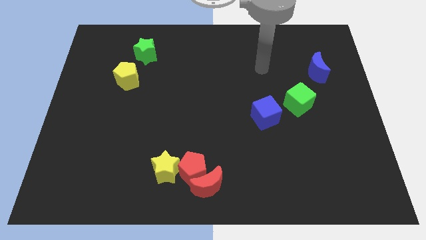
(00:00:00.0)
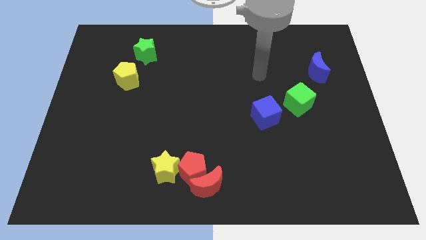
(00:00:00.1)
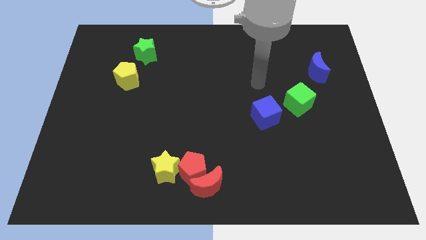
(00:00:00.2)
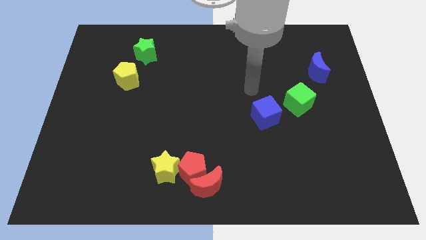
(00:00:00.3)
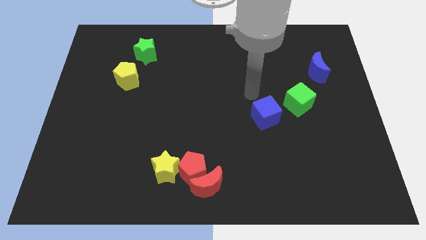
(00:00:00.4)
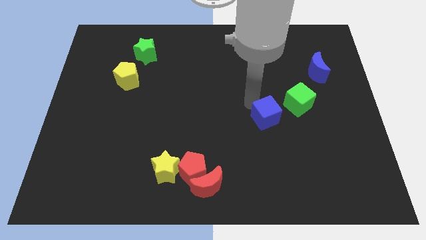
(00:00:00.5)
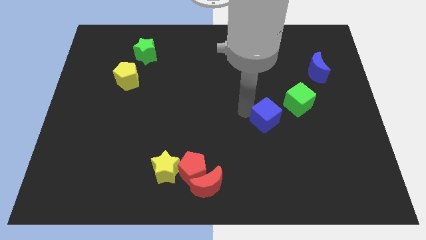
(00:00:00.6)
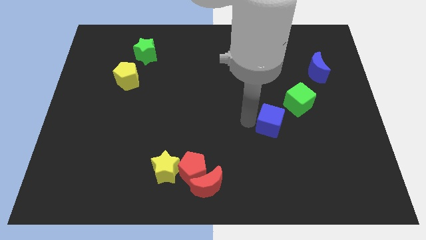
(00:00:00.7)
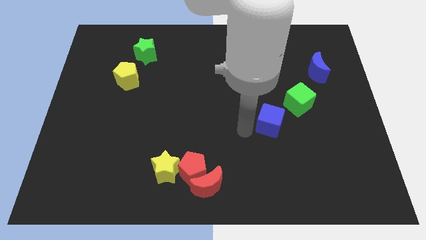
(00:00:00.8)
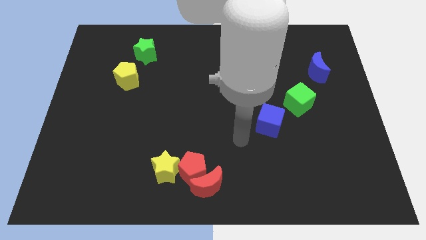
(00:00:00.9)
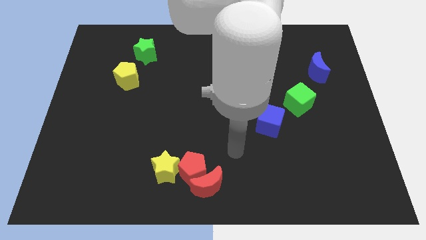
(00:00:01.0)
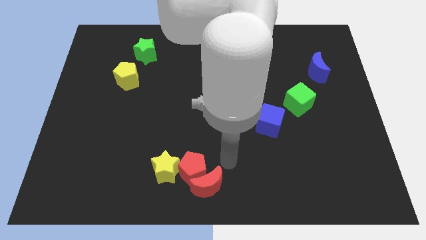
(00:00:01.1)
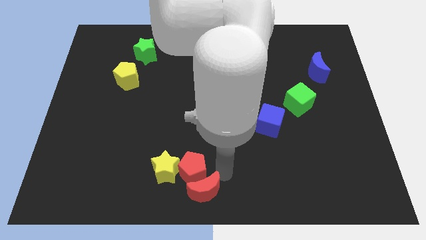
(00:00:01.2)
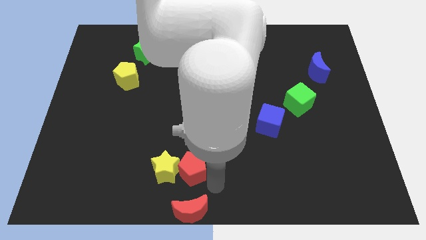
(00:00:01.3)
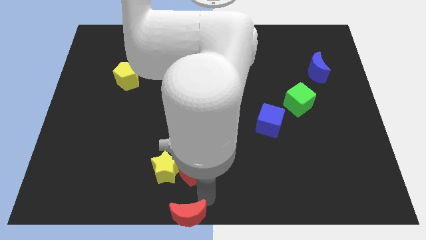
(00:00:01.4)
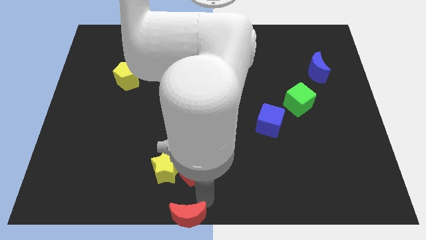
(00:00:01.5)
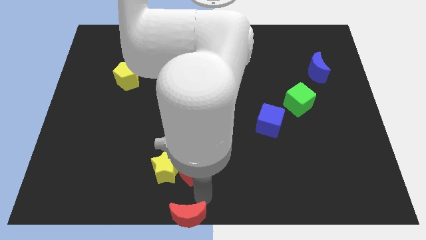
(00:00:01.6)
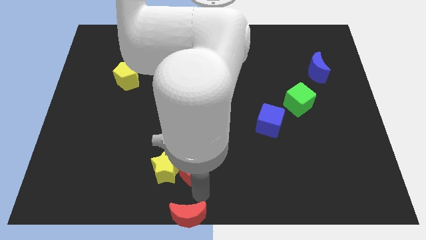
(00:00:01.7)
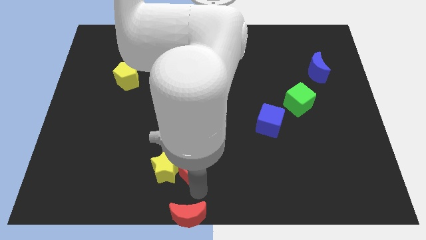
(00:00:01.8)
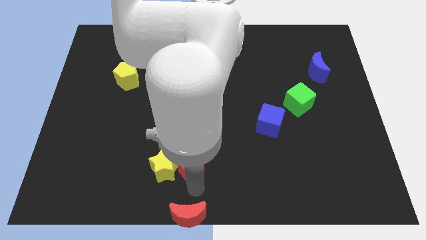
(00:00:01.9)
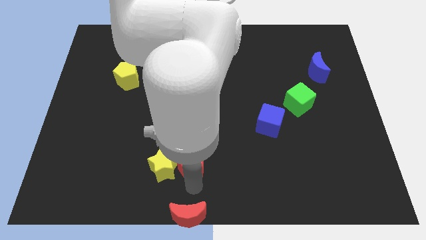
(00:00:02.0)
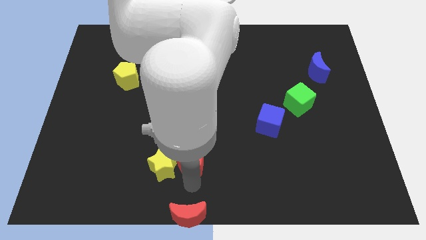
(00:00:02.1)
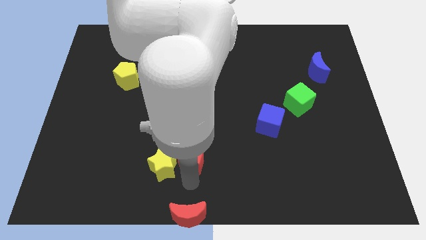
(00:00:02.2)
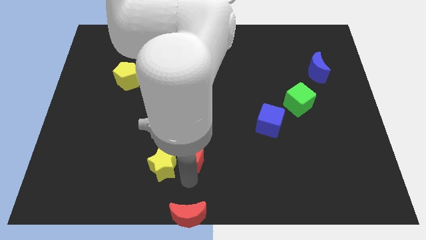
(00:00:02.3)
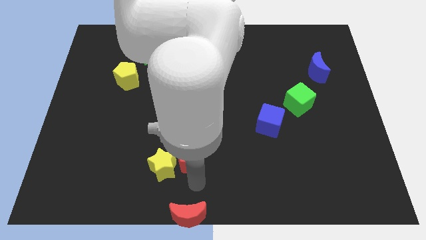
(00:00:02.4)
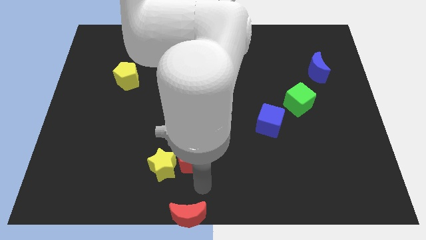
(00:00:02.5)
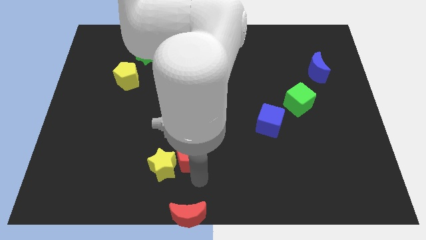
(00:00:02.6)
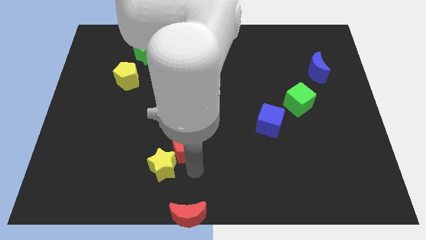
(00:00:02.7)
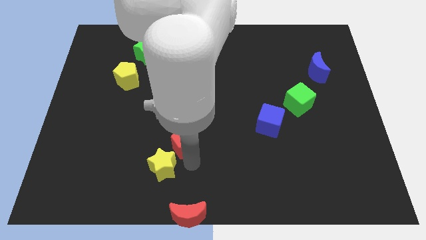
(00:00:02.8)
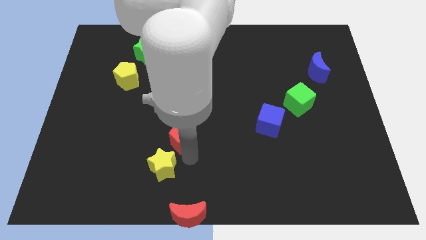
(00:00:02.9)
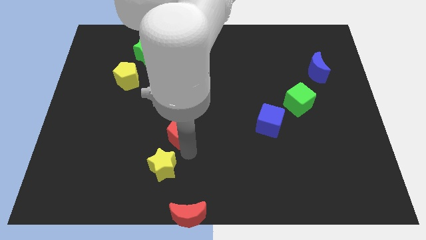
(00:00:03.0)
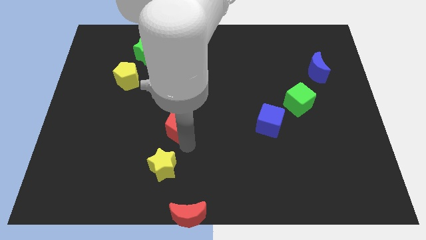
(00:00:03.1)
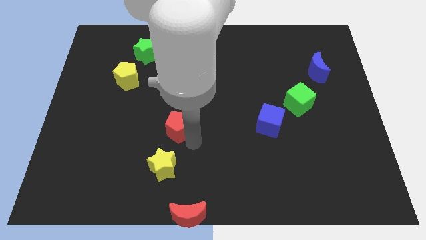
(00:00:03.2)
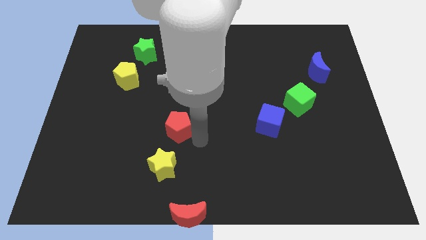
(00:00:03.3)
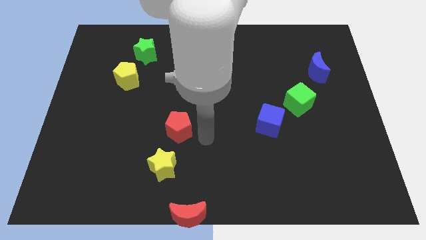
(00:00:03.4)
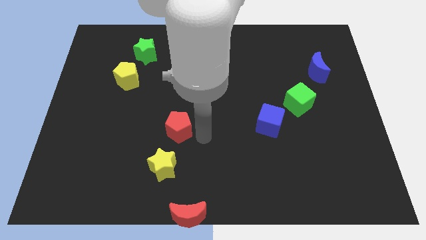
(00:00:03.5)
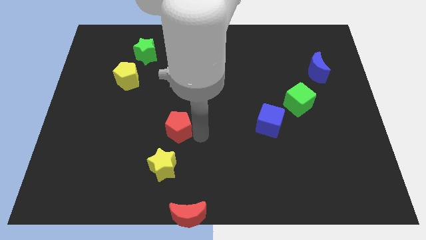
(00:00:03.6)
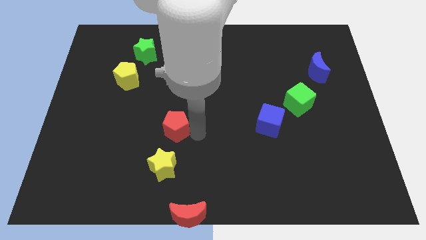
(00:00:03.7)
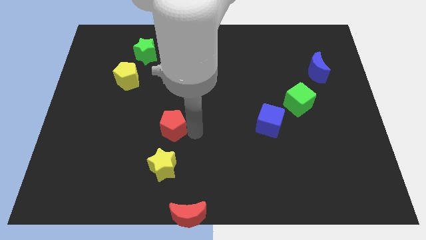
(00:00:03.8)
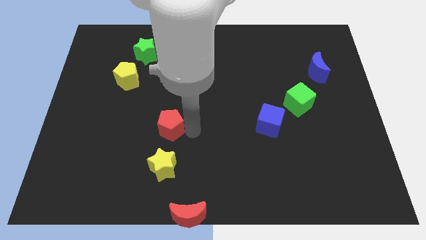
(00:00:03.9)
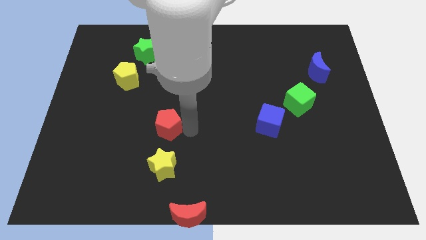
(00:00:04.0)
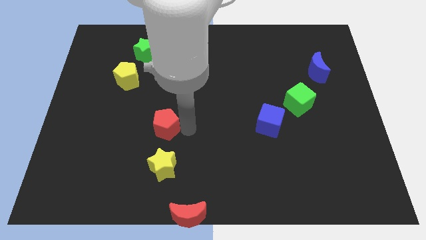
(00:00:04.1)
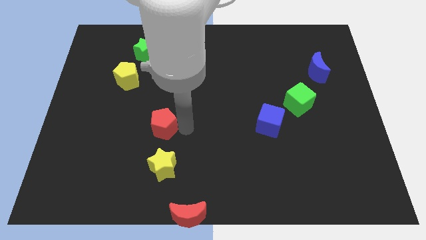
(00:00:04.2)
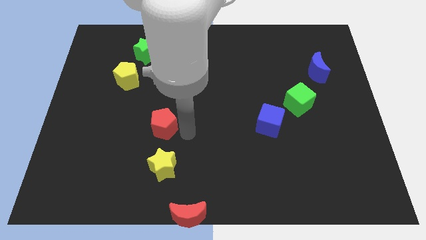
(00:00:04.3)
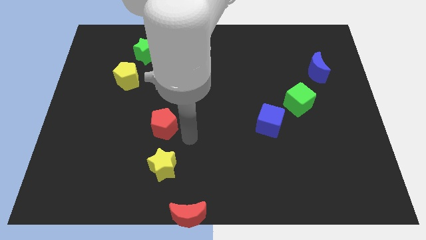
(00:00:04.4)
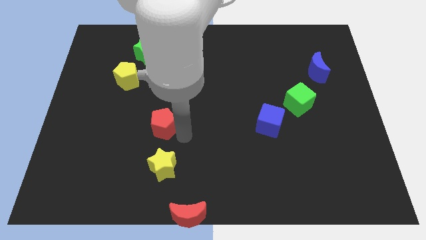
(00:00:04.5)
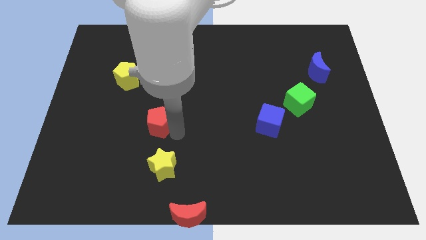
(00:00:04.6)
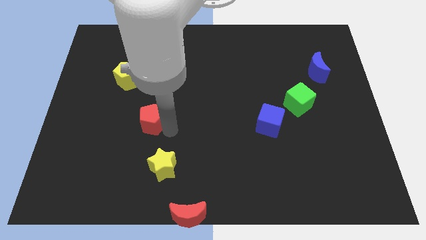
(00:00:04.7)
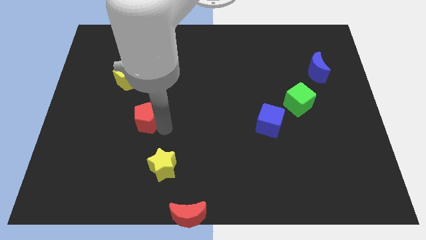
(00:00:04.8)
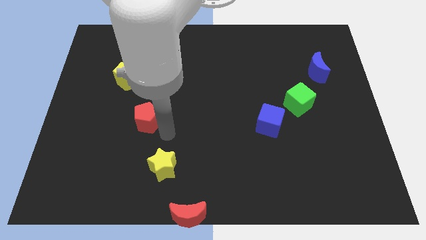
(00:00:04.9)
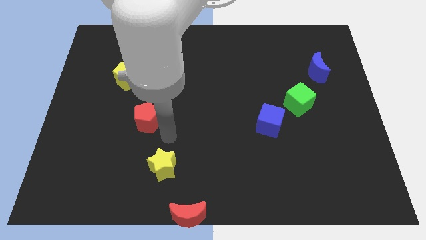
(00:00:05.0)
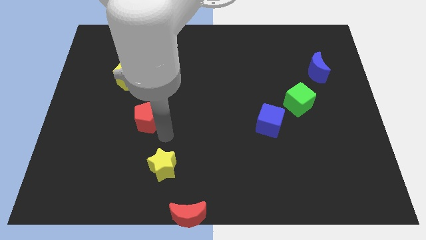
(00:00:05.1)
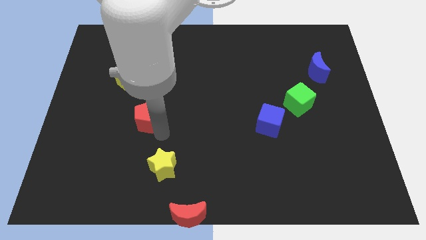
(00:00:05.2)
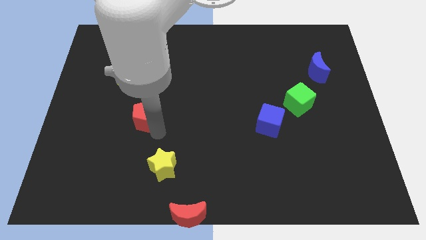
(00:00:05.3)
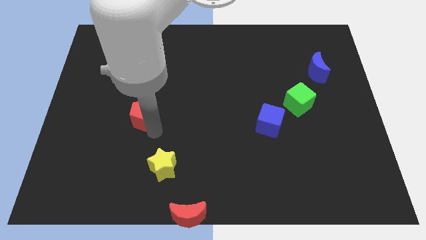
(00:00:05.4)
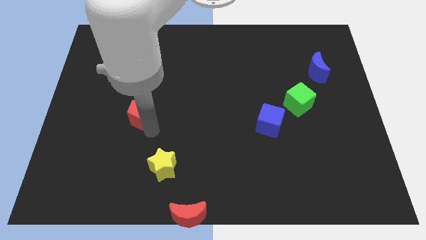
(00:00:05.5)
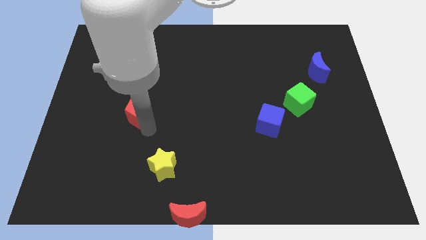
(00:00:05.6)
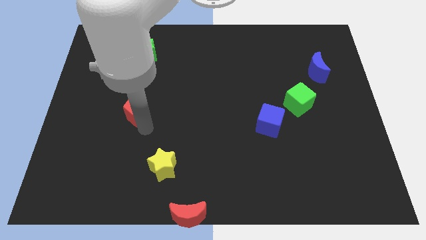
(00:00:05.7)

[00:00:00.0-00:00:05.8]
move the red pentagon upwards and then to the left

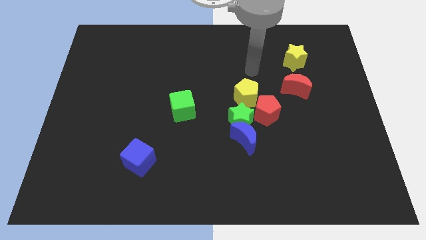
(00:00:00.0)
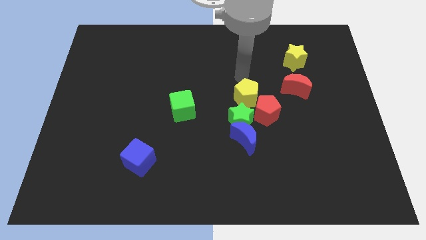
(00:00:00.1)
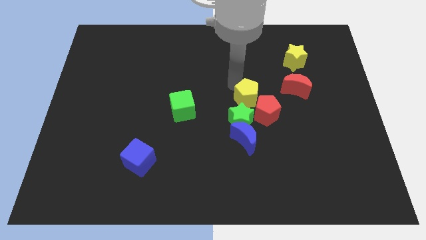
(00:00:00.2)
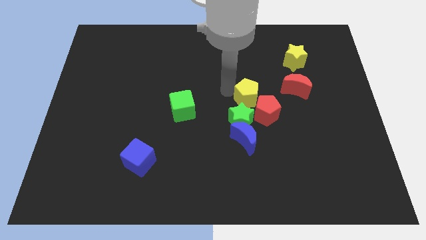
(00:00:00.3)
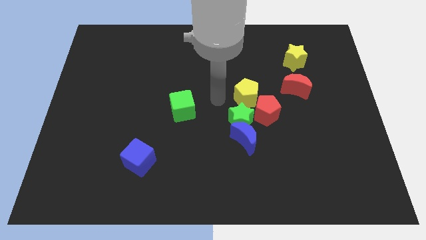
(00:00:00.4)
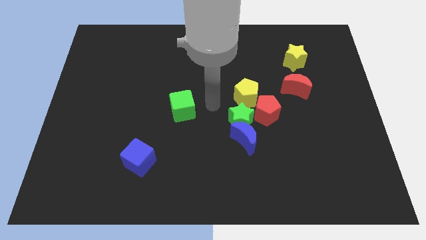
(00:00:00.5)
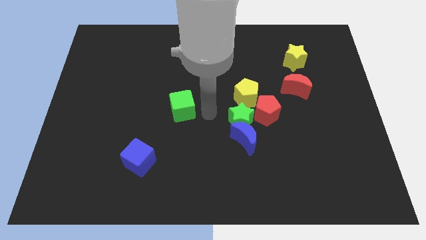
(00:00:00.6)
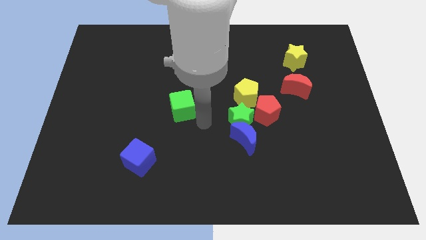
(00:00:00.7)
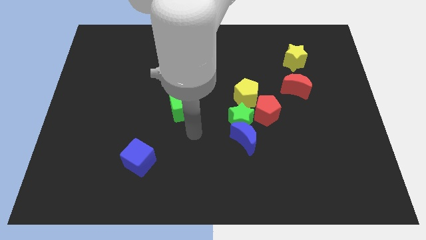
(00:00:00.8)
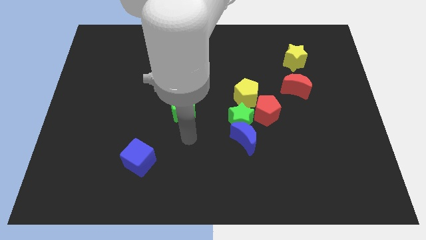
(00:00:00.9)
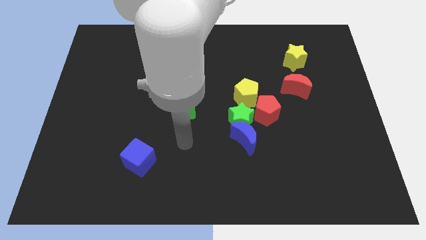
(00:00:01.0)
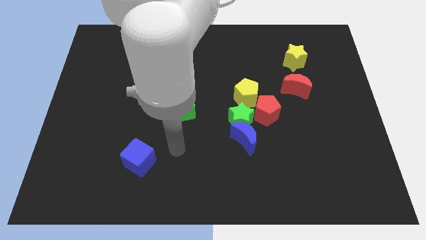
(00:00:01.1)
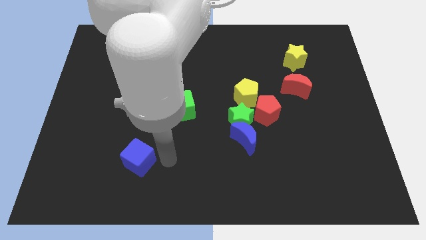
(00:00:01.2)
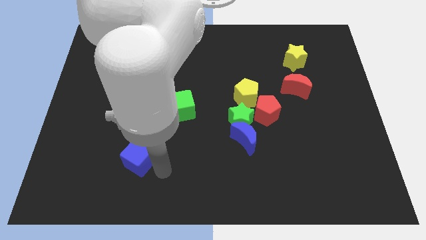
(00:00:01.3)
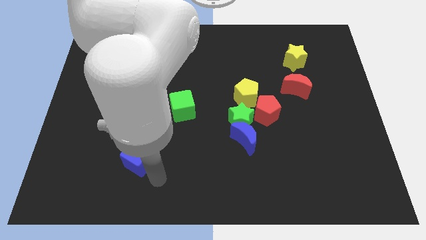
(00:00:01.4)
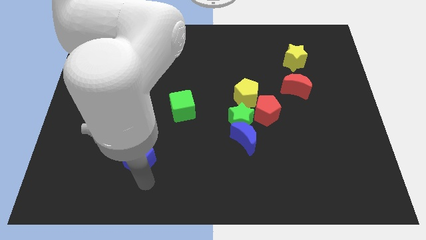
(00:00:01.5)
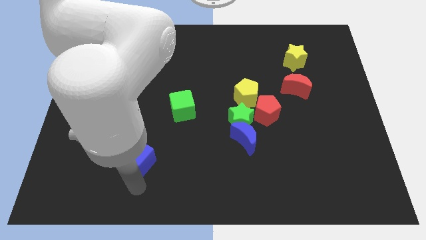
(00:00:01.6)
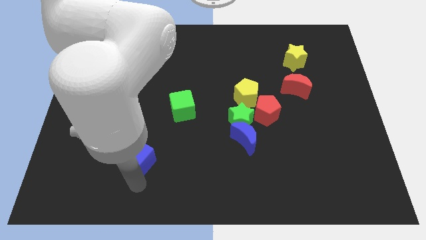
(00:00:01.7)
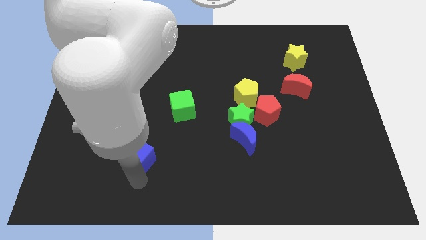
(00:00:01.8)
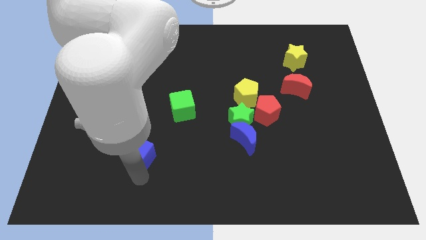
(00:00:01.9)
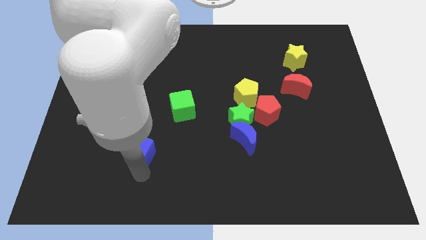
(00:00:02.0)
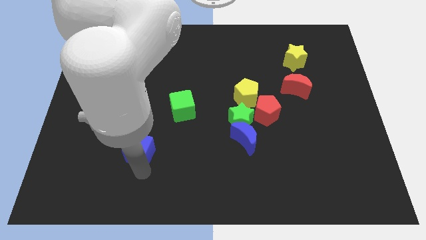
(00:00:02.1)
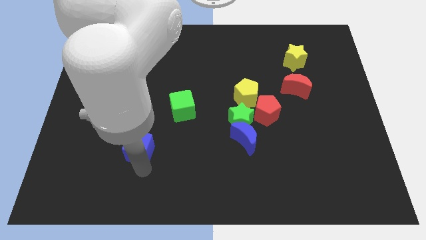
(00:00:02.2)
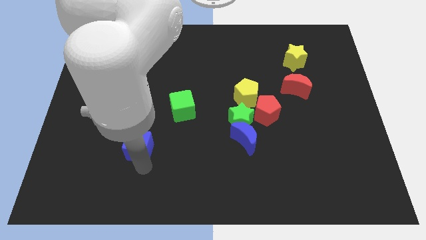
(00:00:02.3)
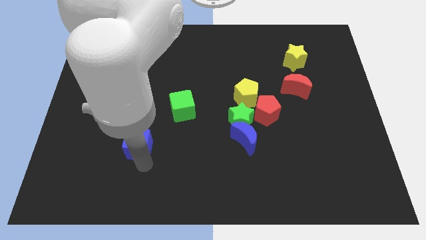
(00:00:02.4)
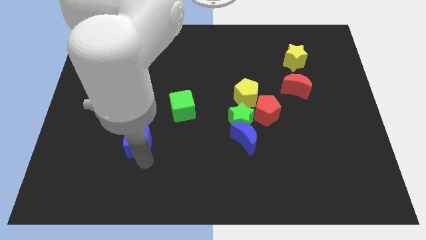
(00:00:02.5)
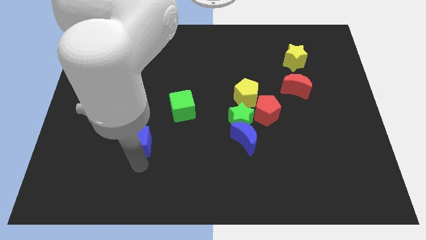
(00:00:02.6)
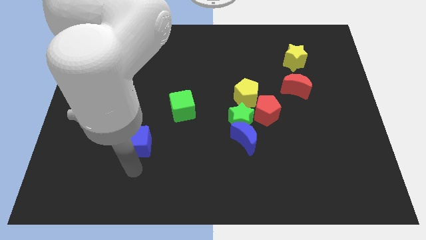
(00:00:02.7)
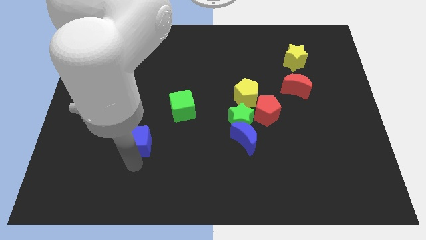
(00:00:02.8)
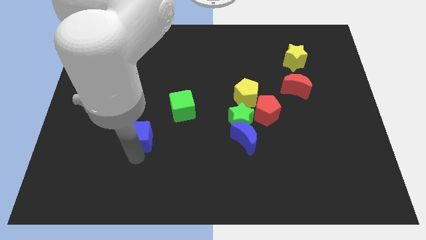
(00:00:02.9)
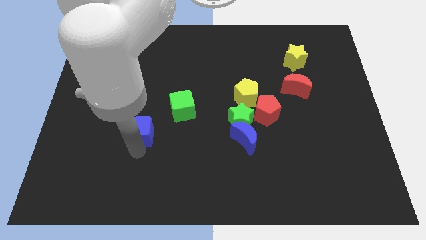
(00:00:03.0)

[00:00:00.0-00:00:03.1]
slightly move the blue cube up
